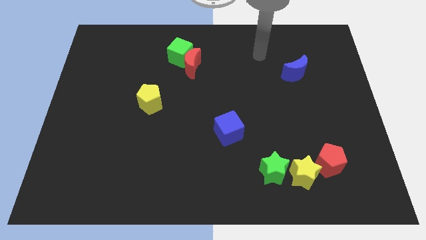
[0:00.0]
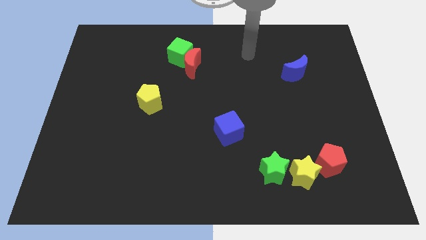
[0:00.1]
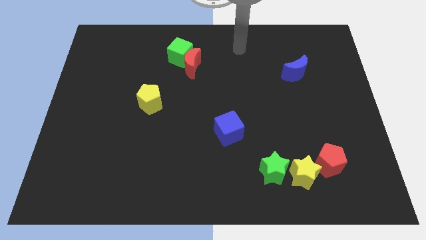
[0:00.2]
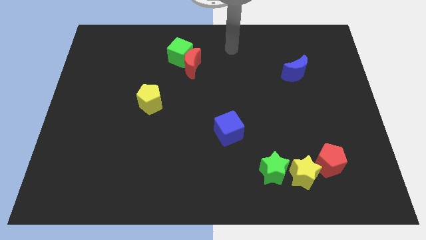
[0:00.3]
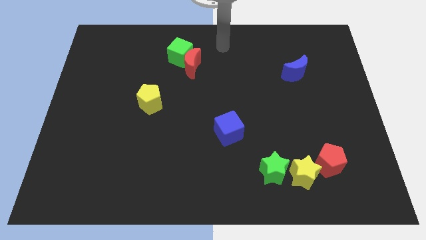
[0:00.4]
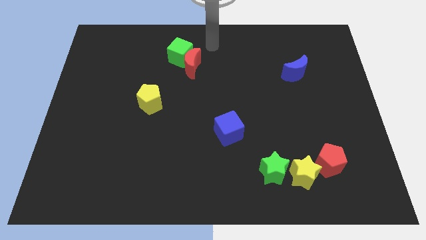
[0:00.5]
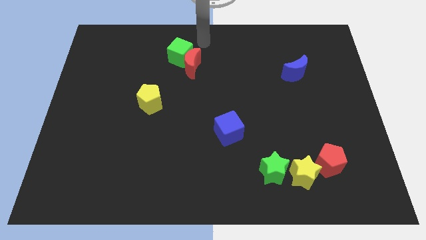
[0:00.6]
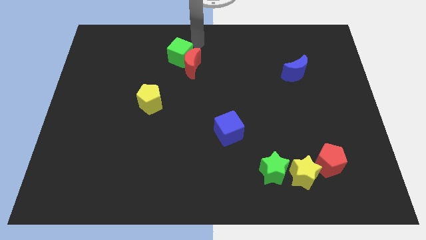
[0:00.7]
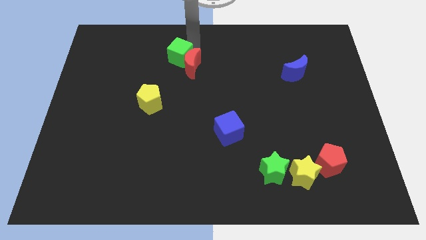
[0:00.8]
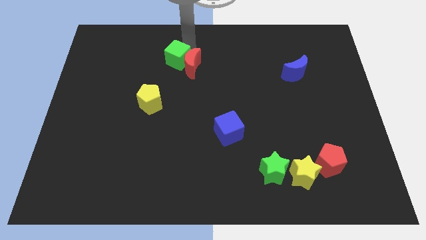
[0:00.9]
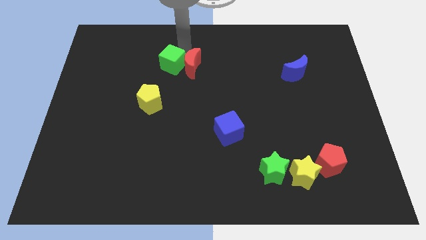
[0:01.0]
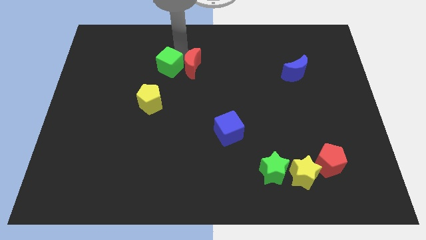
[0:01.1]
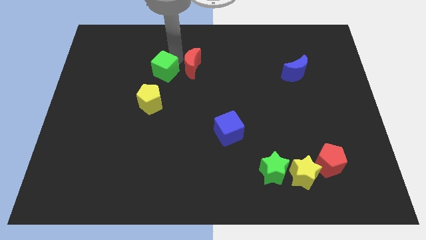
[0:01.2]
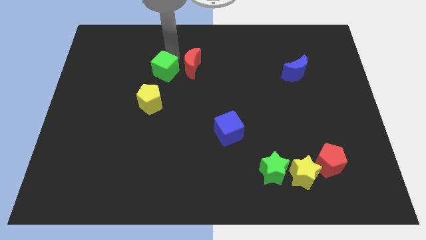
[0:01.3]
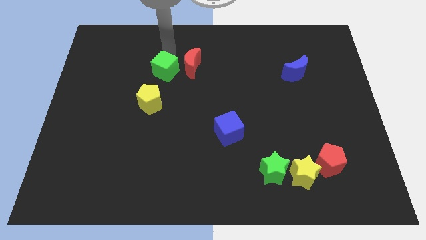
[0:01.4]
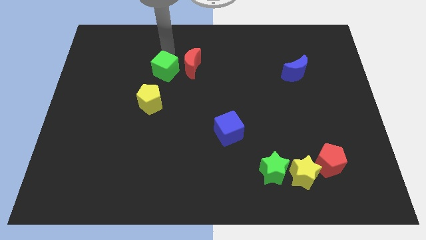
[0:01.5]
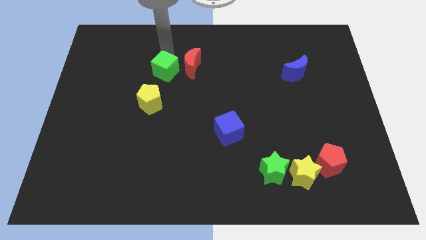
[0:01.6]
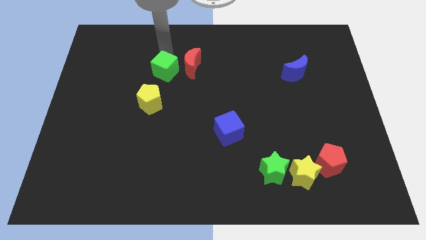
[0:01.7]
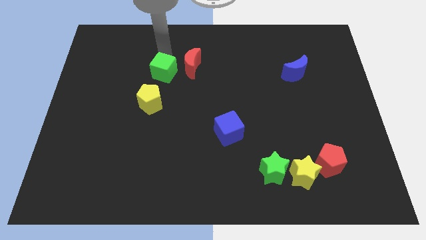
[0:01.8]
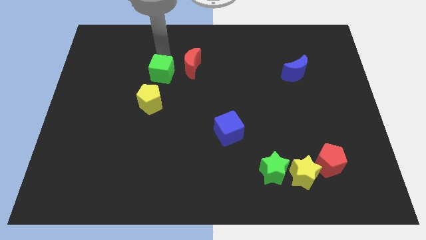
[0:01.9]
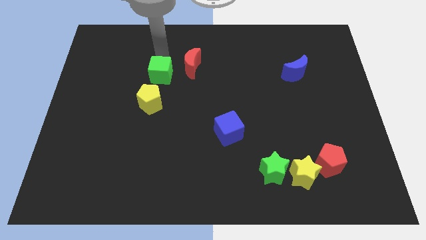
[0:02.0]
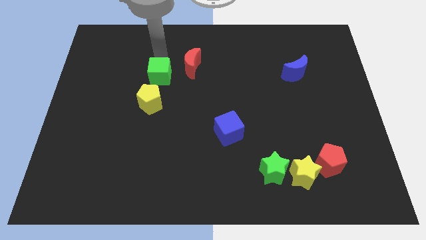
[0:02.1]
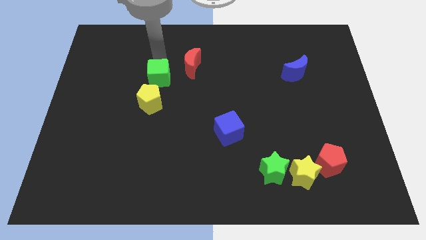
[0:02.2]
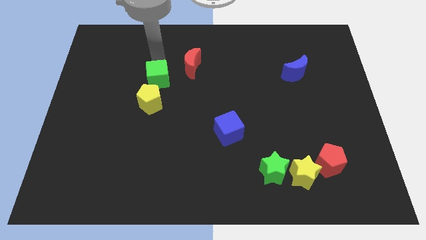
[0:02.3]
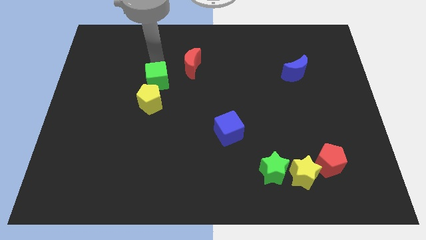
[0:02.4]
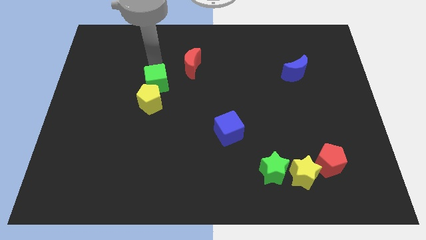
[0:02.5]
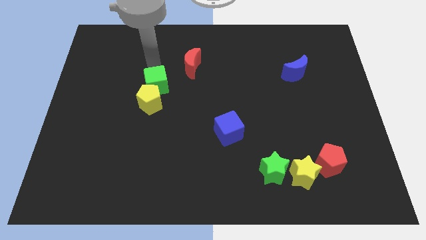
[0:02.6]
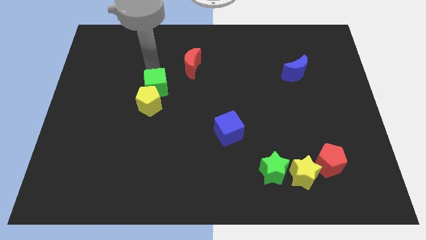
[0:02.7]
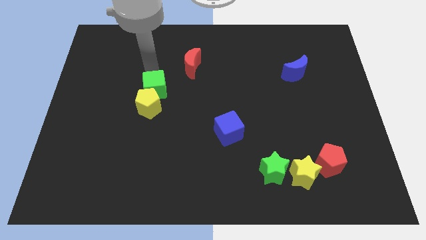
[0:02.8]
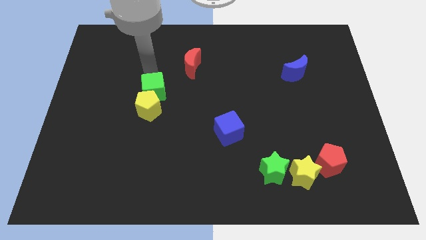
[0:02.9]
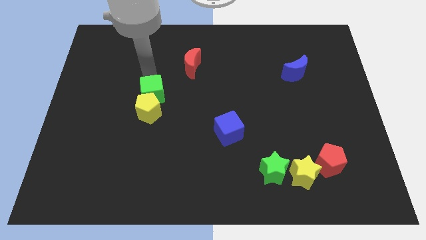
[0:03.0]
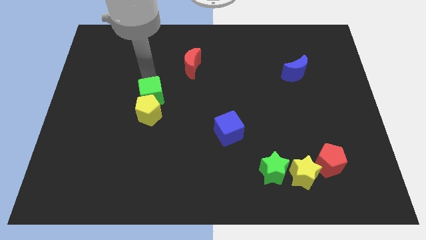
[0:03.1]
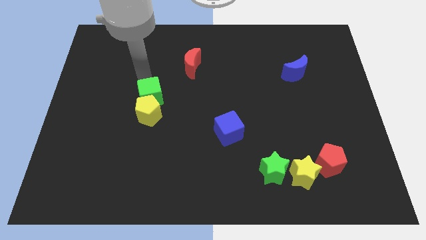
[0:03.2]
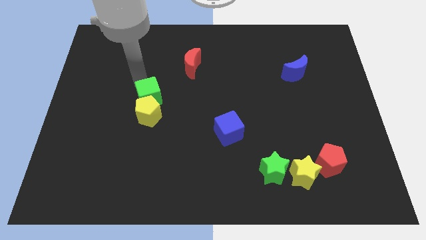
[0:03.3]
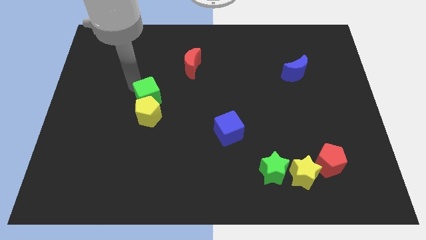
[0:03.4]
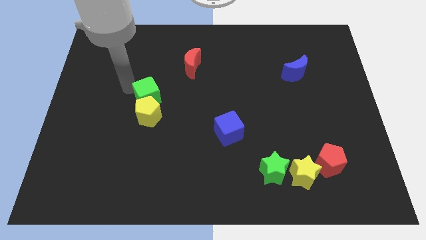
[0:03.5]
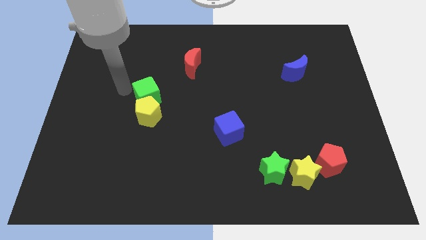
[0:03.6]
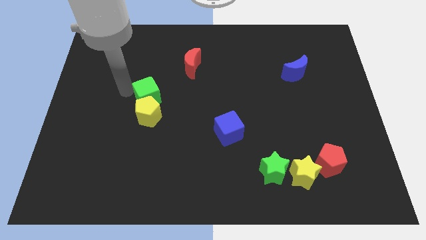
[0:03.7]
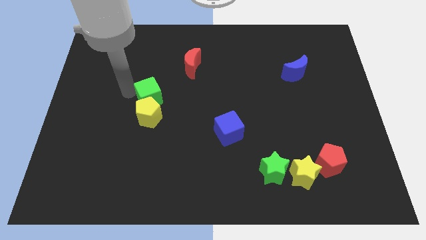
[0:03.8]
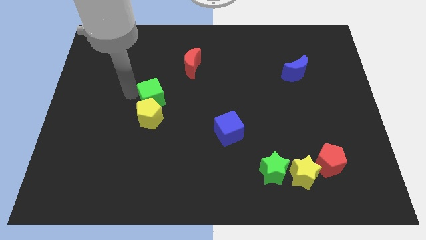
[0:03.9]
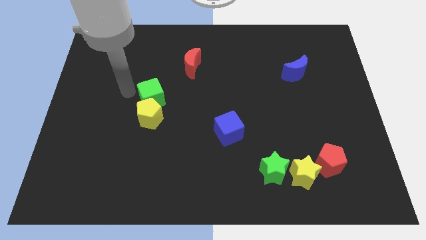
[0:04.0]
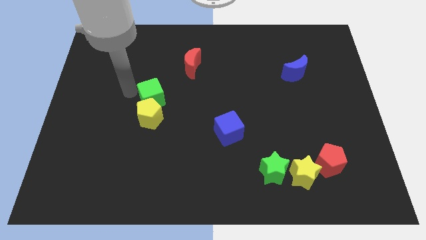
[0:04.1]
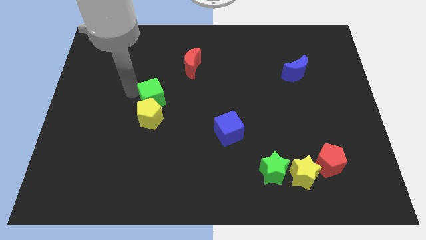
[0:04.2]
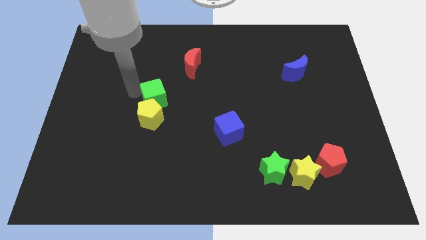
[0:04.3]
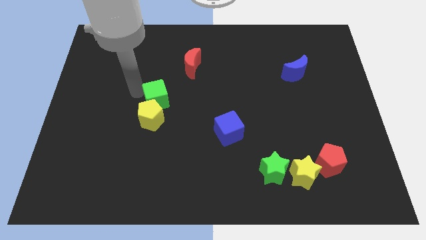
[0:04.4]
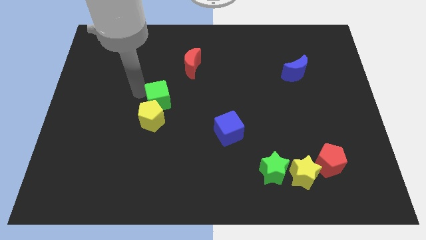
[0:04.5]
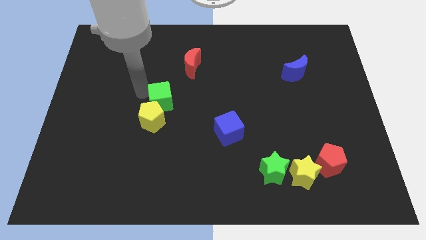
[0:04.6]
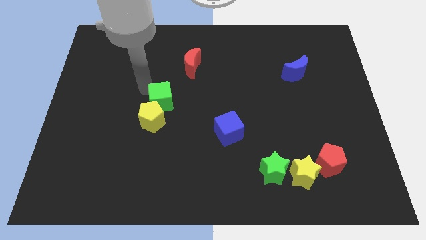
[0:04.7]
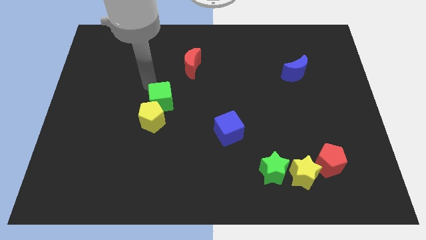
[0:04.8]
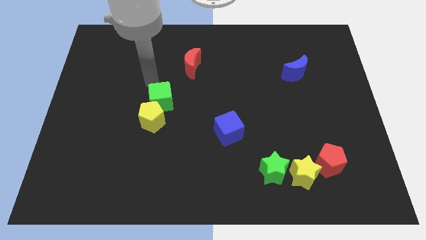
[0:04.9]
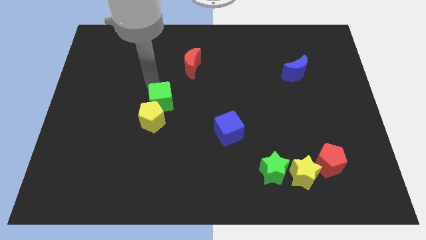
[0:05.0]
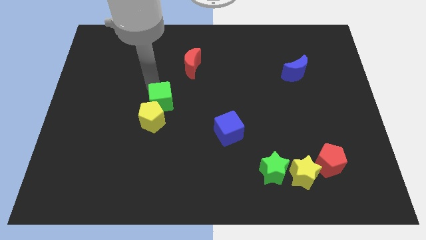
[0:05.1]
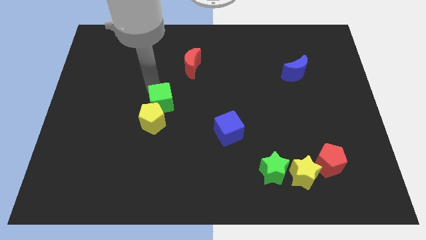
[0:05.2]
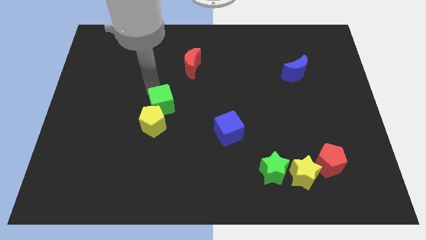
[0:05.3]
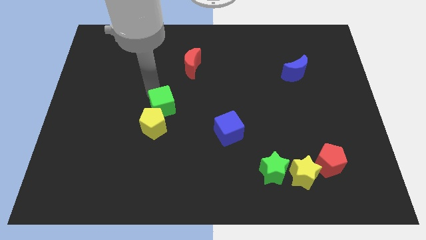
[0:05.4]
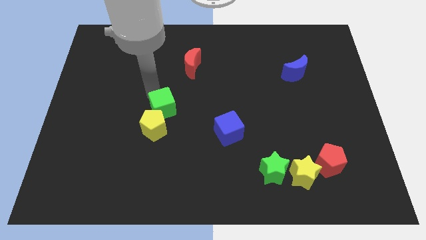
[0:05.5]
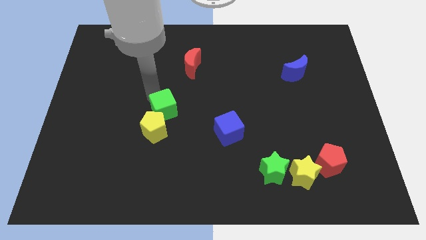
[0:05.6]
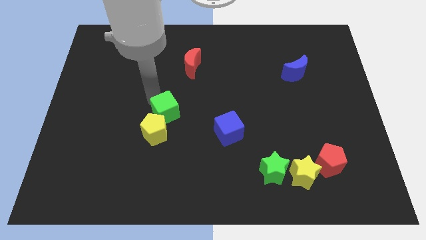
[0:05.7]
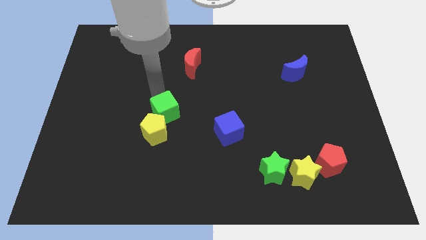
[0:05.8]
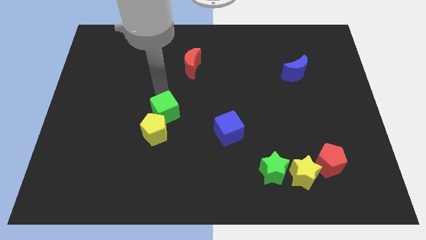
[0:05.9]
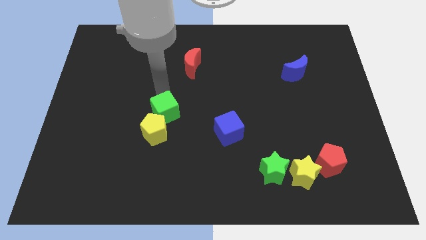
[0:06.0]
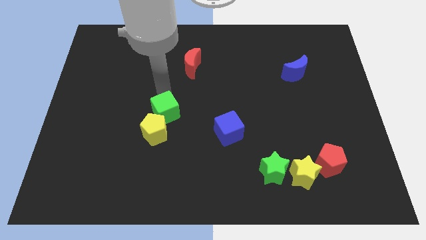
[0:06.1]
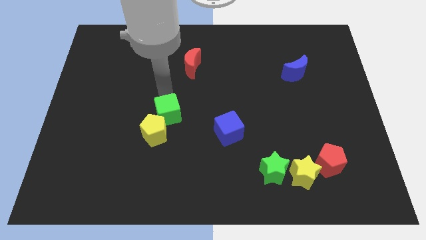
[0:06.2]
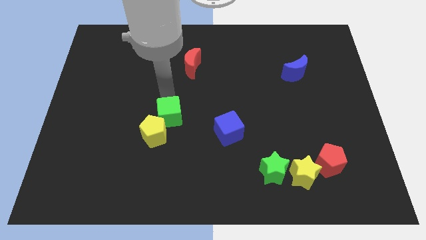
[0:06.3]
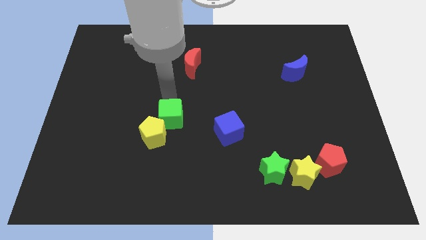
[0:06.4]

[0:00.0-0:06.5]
push the green cube down

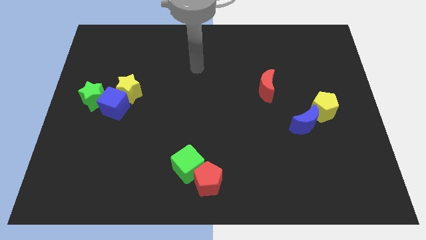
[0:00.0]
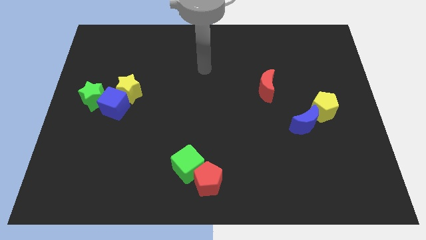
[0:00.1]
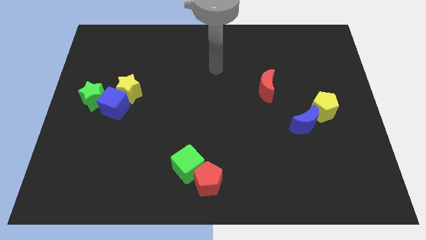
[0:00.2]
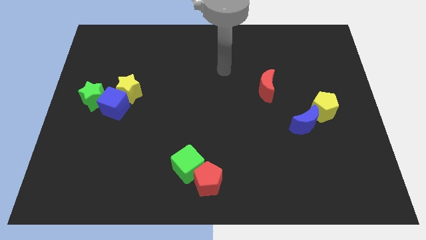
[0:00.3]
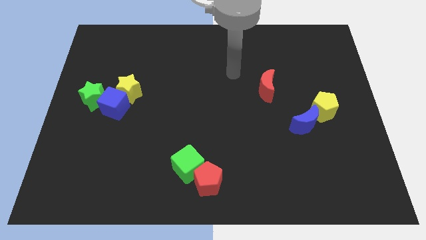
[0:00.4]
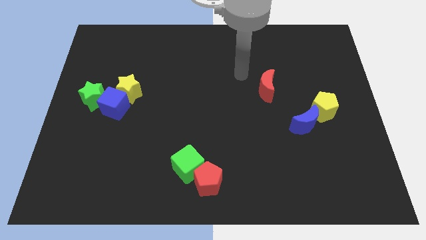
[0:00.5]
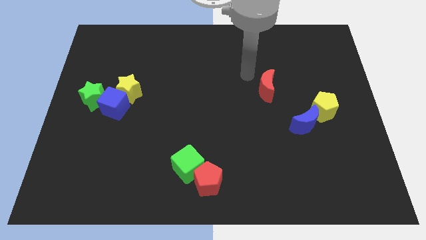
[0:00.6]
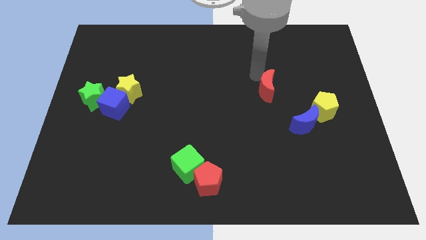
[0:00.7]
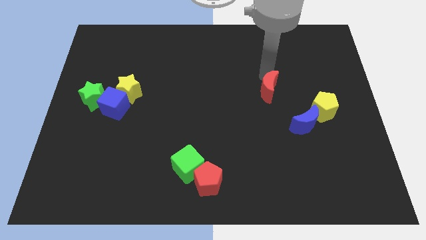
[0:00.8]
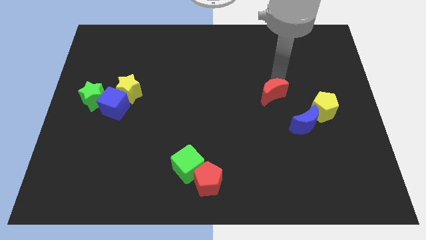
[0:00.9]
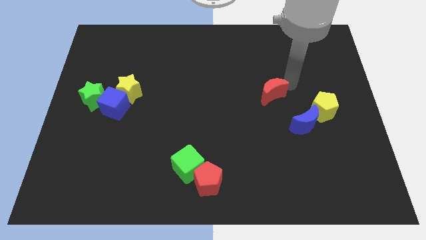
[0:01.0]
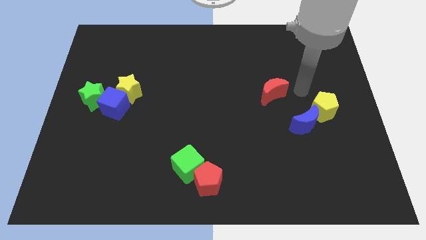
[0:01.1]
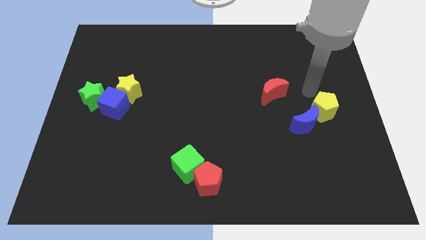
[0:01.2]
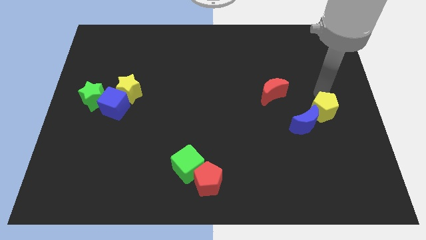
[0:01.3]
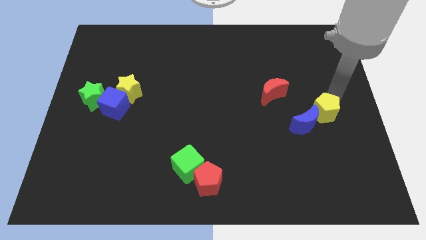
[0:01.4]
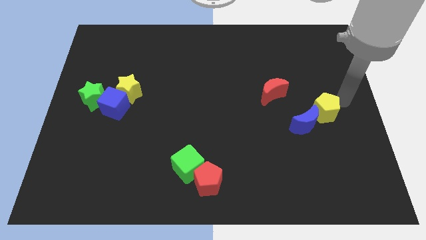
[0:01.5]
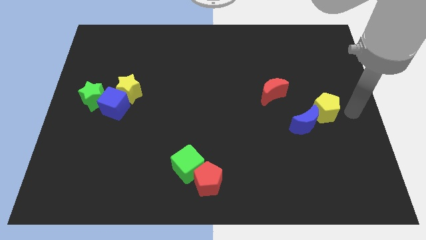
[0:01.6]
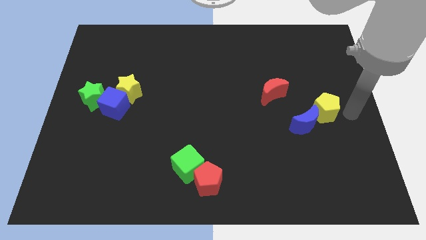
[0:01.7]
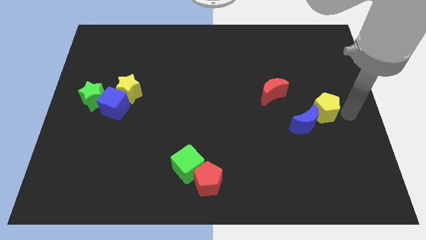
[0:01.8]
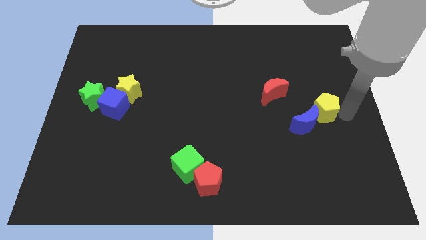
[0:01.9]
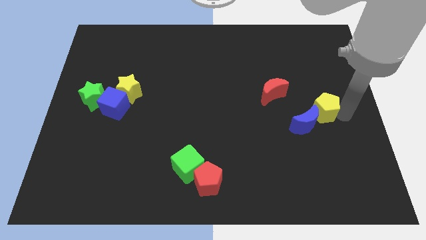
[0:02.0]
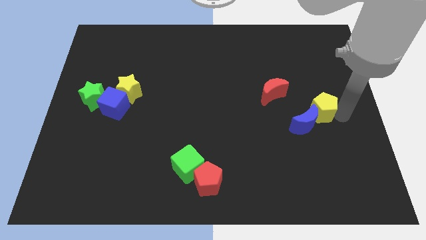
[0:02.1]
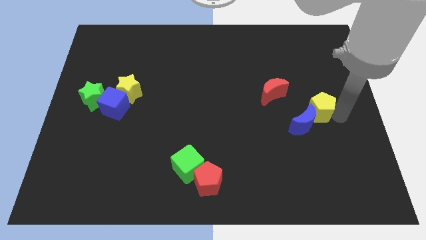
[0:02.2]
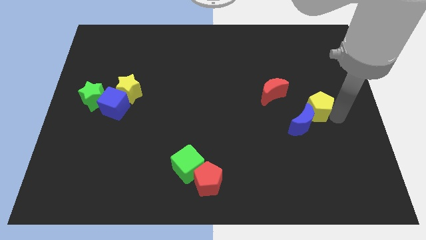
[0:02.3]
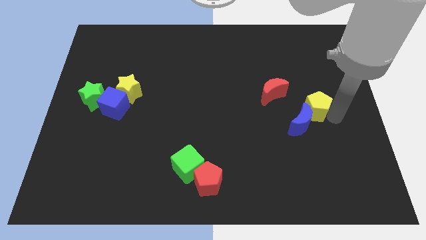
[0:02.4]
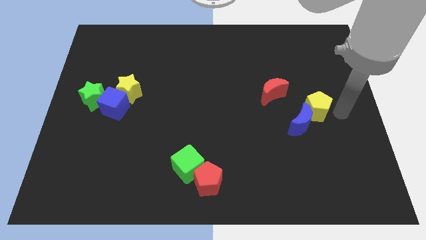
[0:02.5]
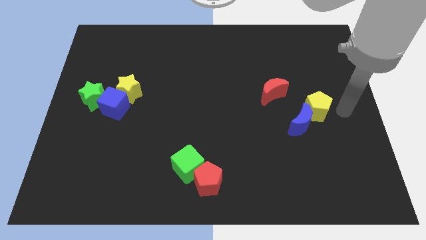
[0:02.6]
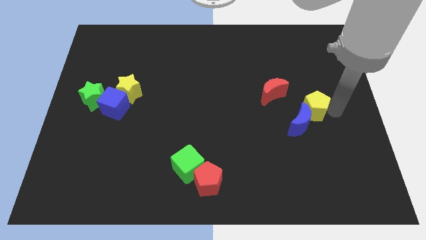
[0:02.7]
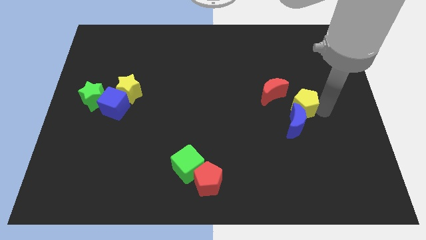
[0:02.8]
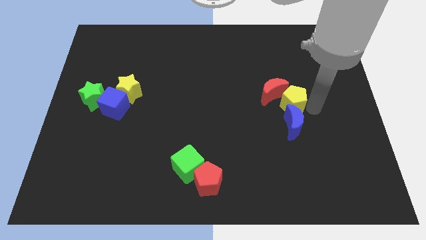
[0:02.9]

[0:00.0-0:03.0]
push the yellow pentagon a little bit left
